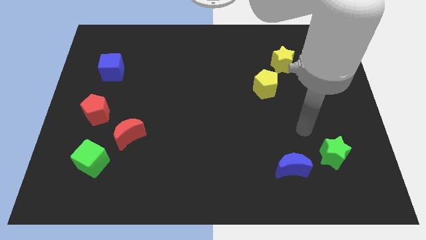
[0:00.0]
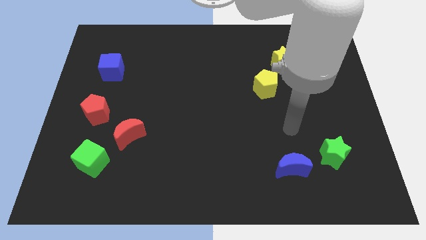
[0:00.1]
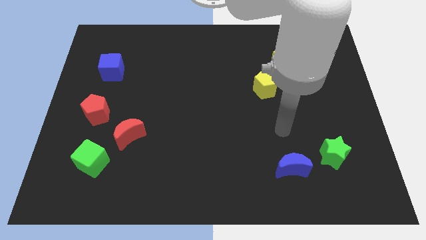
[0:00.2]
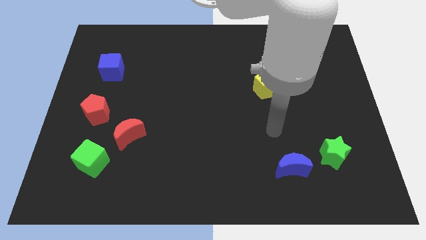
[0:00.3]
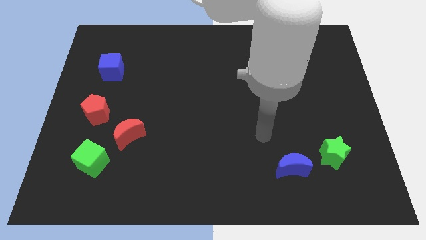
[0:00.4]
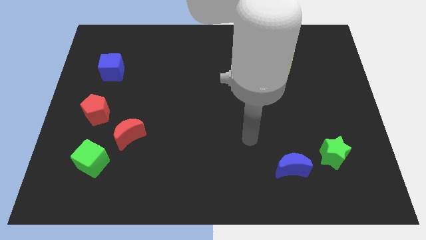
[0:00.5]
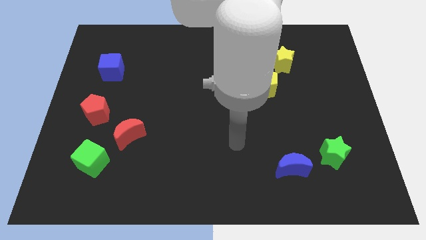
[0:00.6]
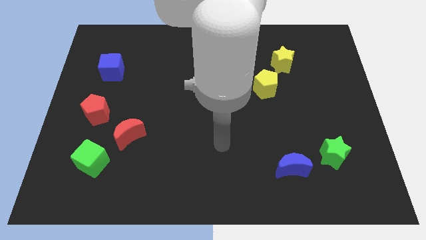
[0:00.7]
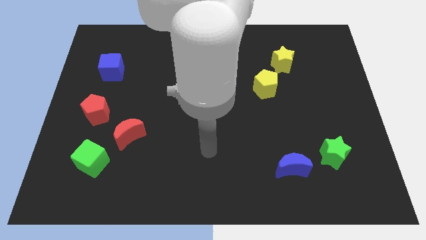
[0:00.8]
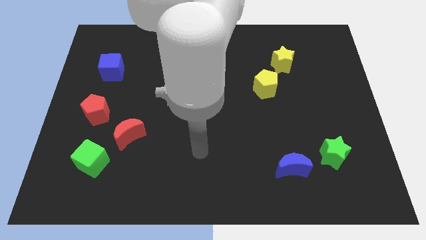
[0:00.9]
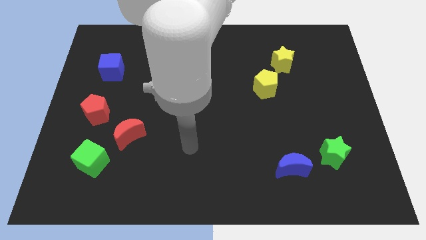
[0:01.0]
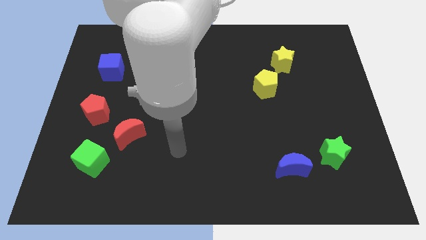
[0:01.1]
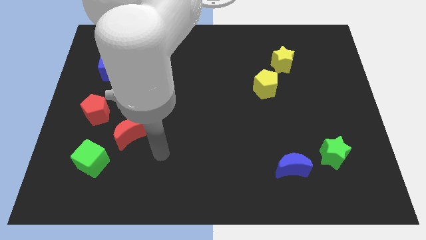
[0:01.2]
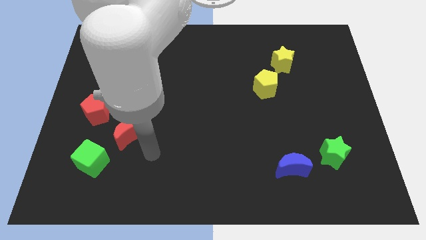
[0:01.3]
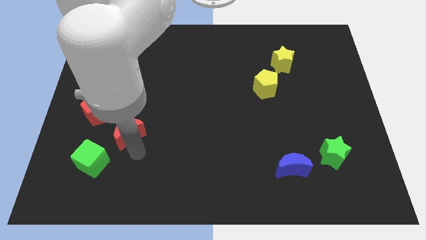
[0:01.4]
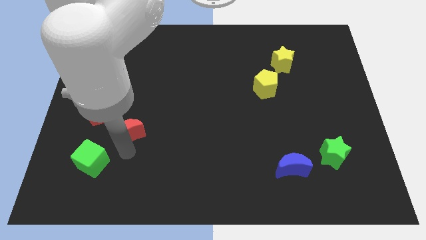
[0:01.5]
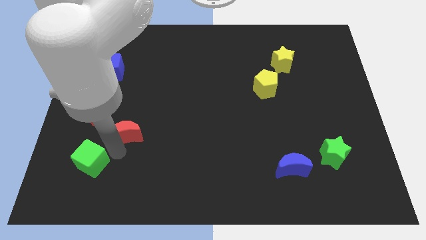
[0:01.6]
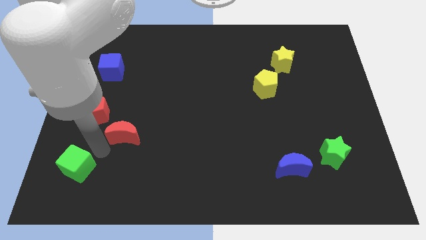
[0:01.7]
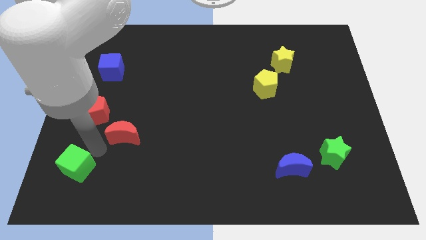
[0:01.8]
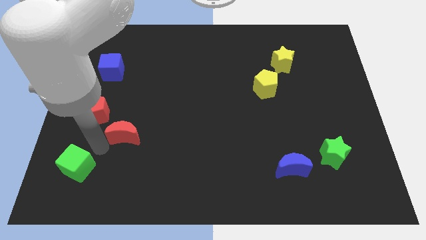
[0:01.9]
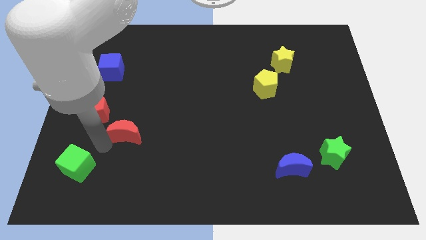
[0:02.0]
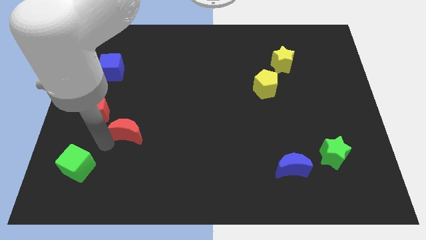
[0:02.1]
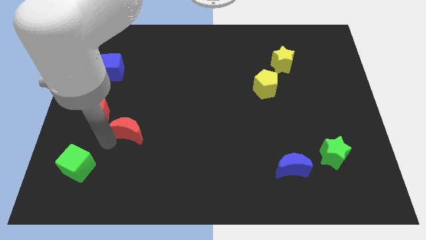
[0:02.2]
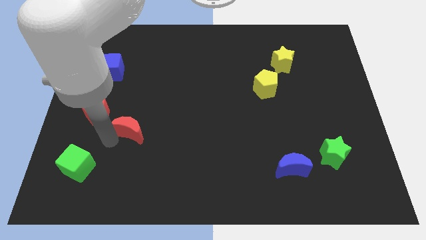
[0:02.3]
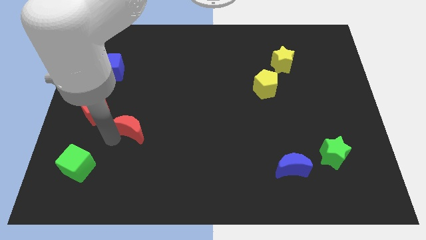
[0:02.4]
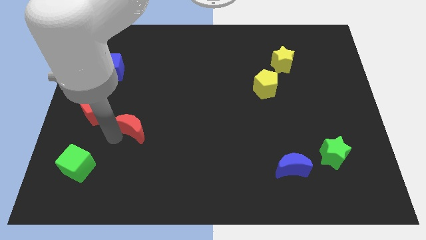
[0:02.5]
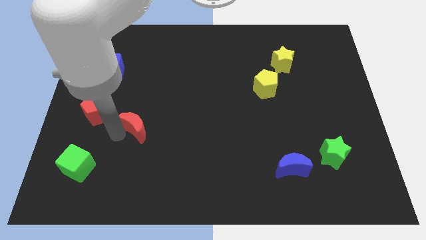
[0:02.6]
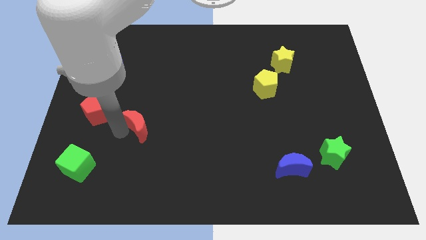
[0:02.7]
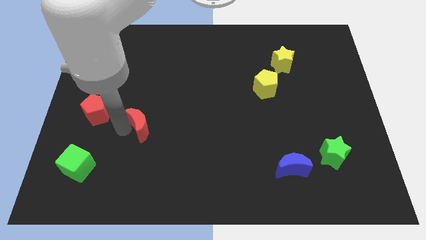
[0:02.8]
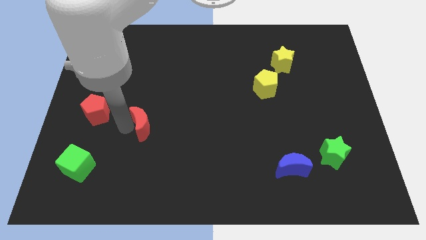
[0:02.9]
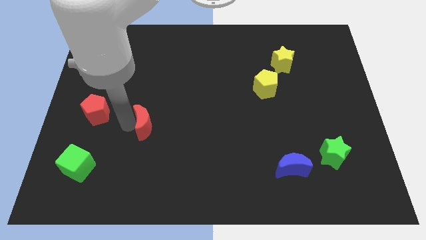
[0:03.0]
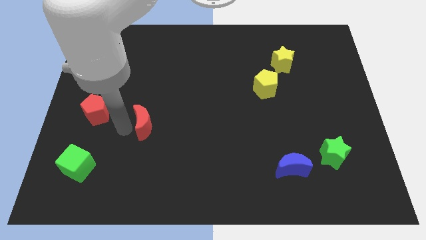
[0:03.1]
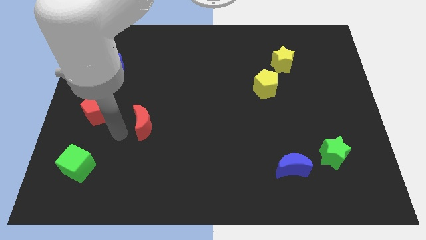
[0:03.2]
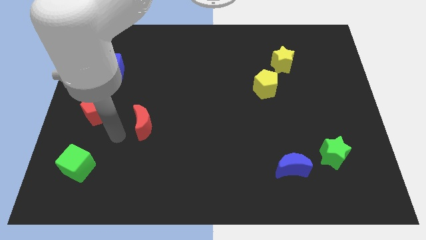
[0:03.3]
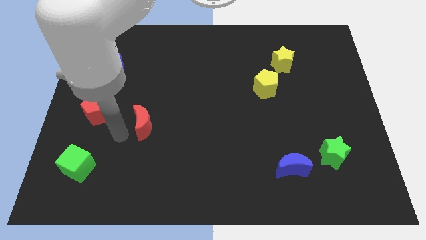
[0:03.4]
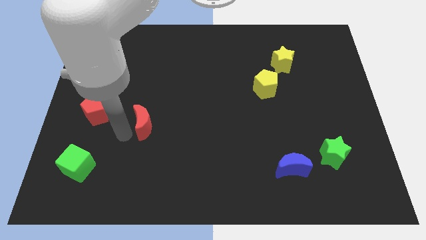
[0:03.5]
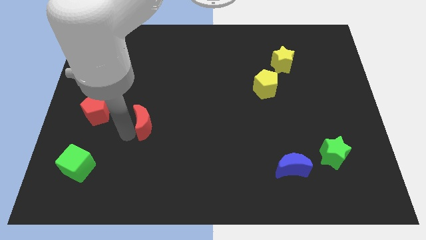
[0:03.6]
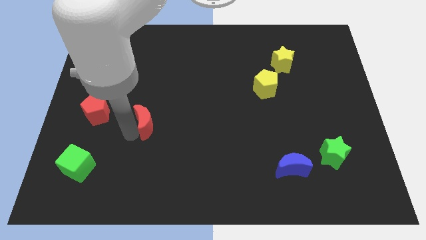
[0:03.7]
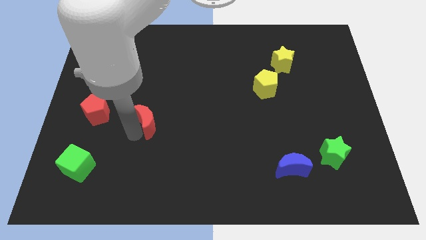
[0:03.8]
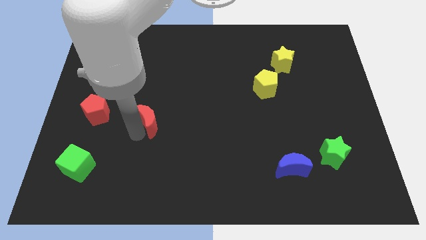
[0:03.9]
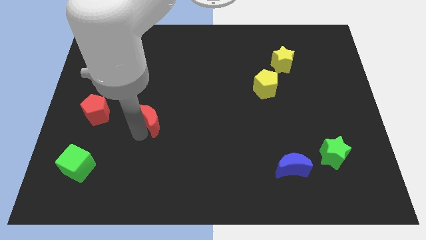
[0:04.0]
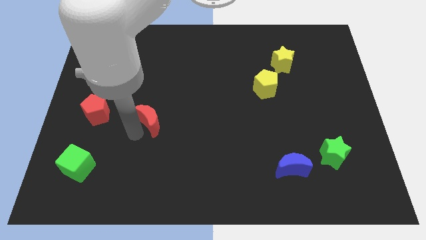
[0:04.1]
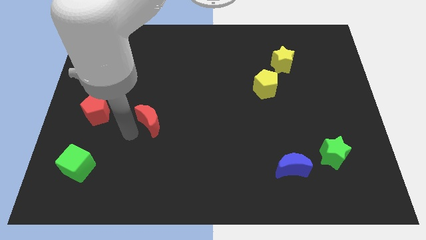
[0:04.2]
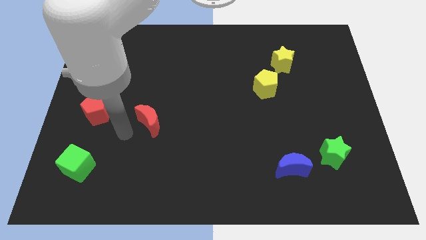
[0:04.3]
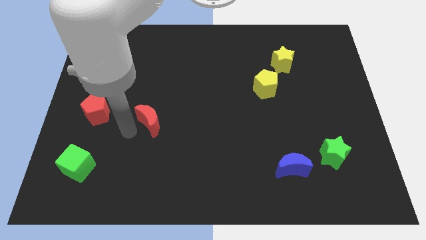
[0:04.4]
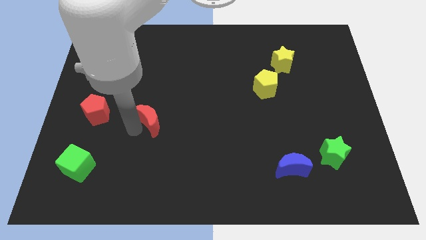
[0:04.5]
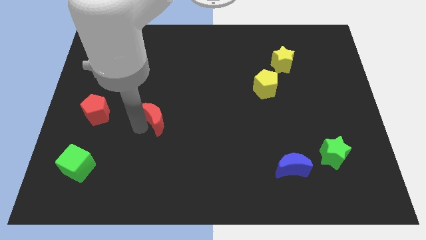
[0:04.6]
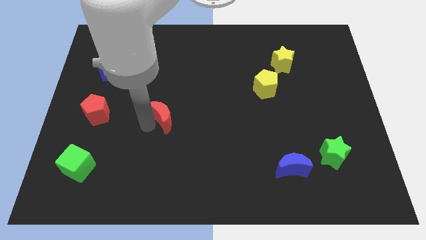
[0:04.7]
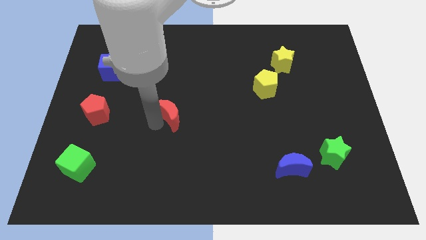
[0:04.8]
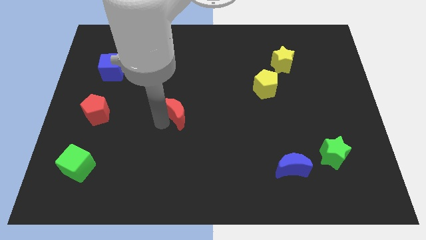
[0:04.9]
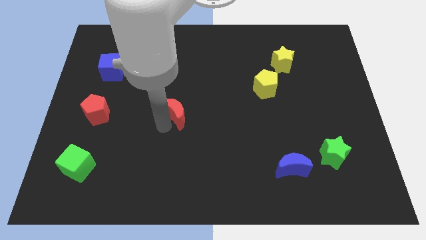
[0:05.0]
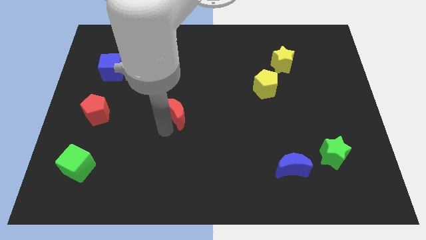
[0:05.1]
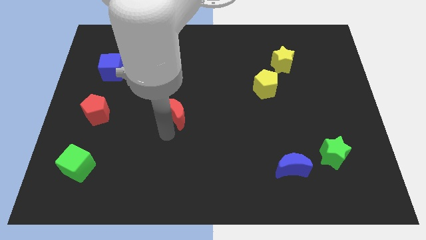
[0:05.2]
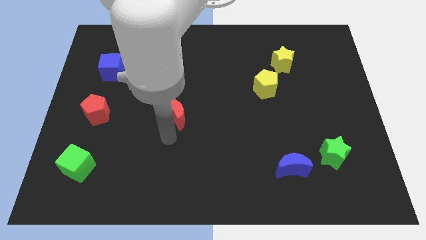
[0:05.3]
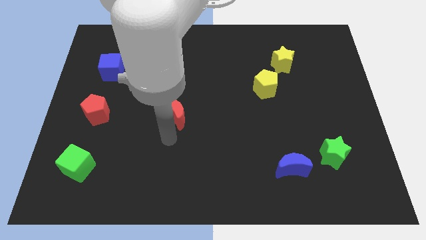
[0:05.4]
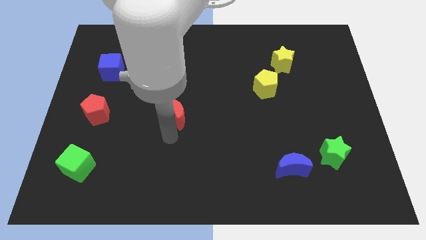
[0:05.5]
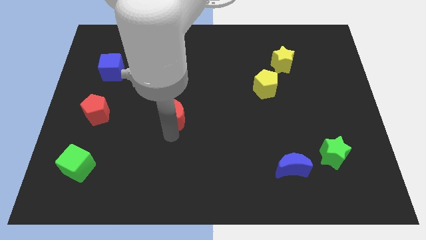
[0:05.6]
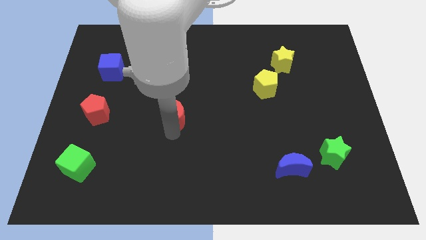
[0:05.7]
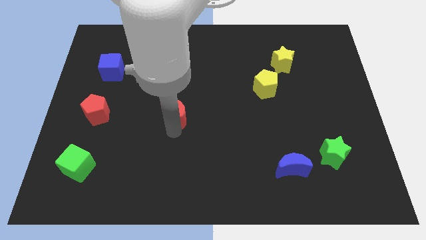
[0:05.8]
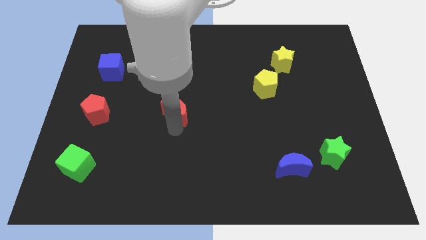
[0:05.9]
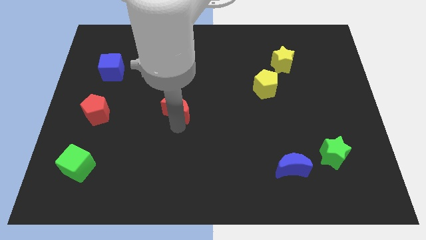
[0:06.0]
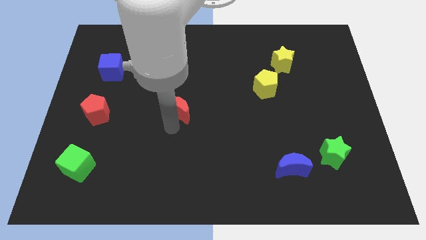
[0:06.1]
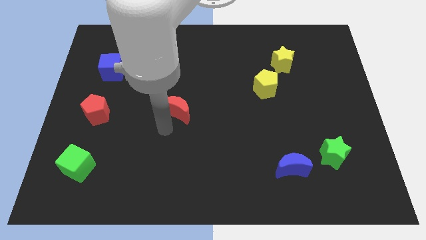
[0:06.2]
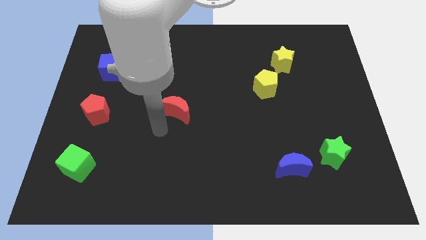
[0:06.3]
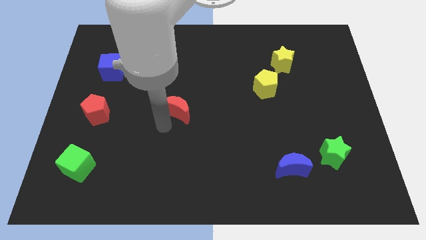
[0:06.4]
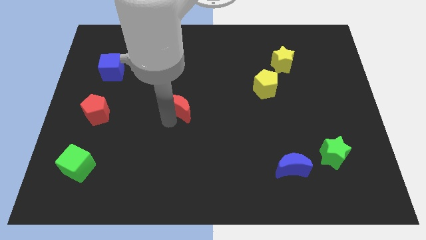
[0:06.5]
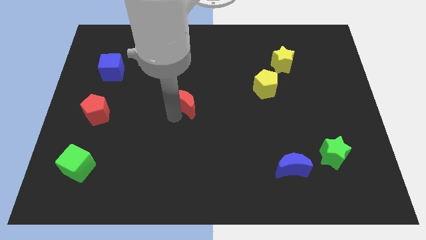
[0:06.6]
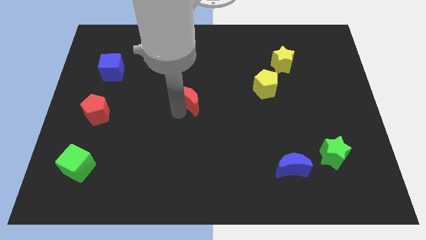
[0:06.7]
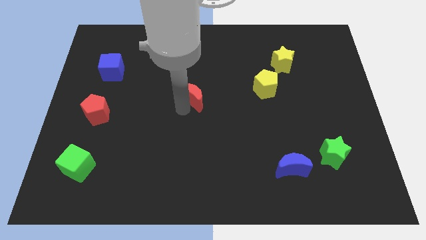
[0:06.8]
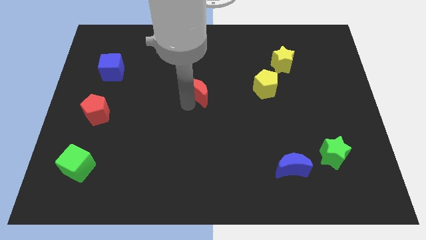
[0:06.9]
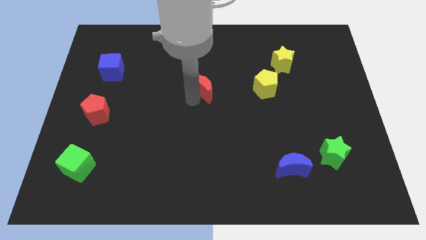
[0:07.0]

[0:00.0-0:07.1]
push the red moon up and to the right

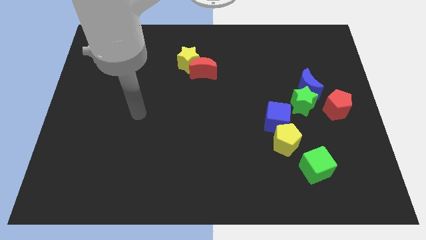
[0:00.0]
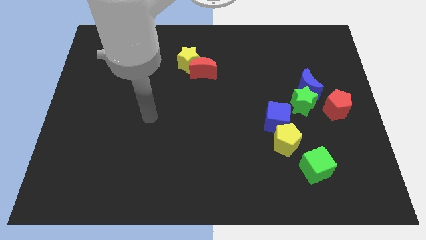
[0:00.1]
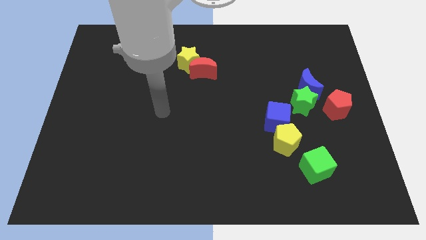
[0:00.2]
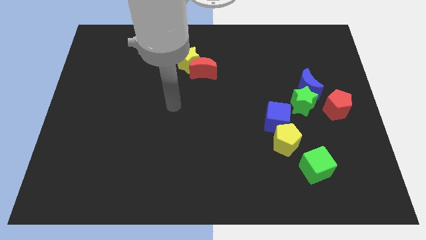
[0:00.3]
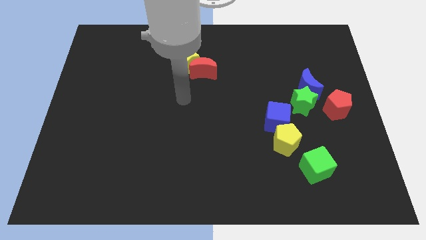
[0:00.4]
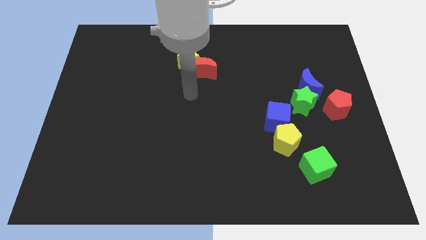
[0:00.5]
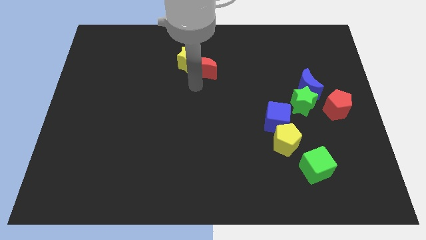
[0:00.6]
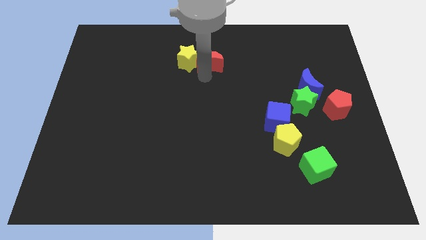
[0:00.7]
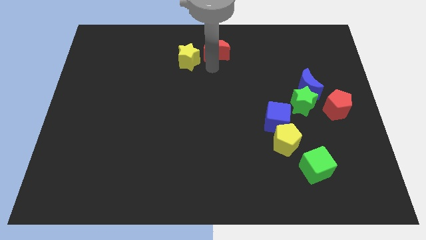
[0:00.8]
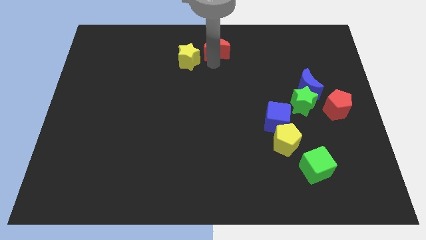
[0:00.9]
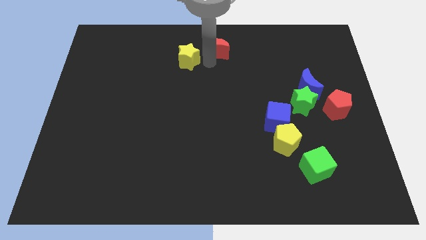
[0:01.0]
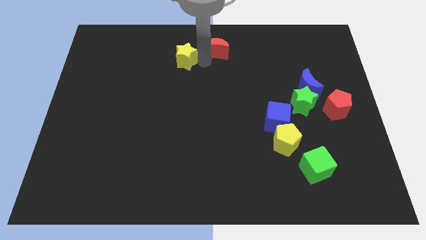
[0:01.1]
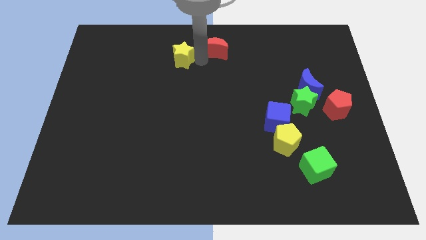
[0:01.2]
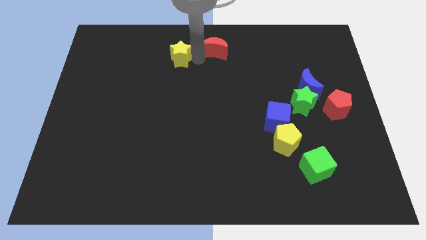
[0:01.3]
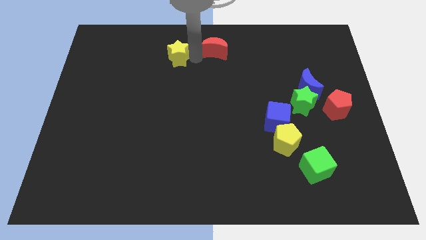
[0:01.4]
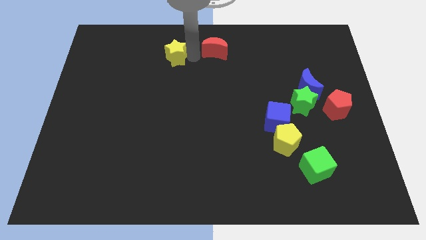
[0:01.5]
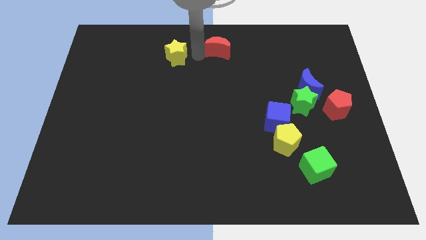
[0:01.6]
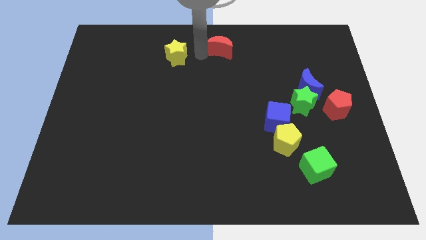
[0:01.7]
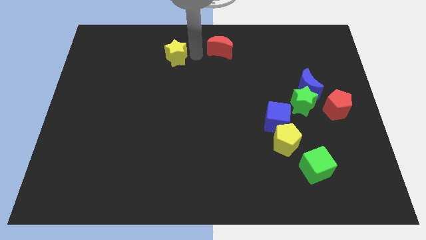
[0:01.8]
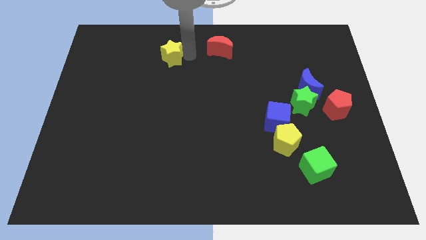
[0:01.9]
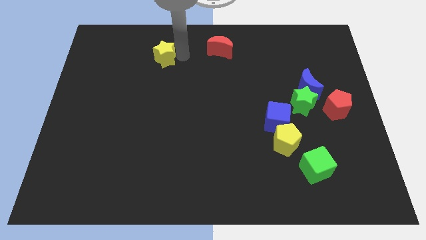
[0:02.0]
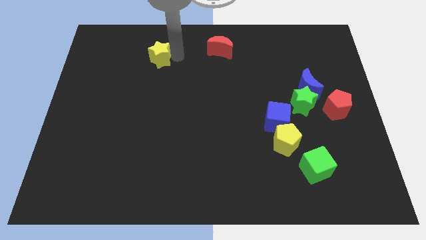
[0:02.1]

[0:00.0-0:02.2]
slide the yellow star a little bit left
